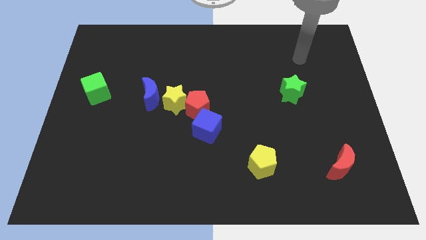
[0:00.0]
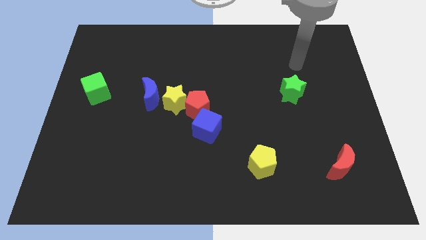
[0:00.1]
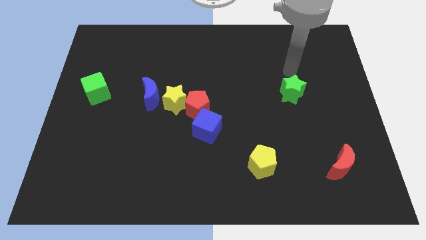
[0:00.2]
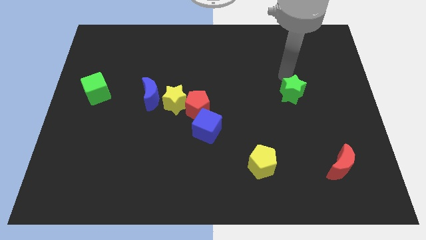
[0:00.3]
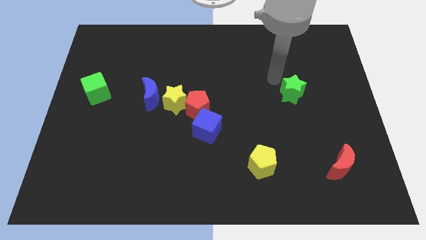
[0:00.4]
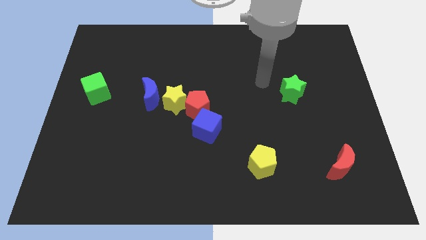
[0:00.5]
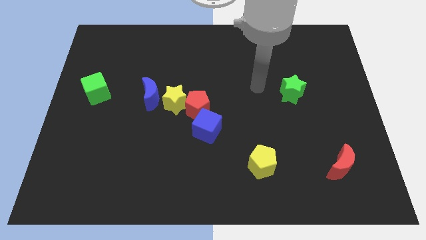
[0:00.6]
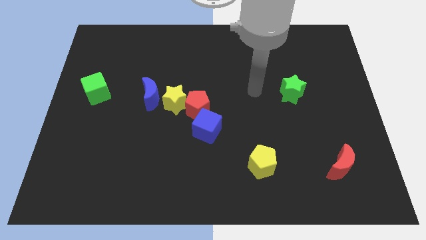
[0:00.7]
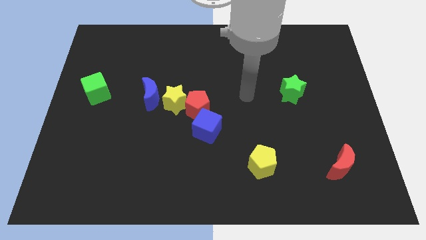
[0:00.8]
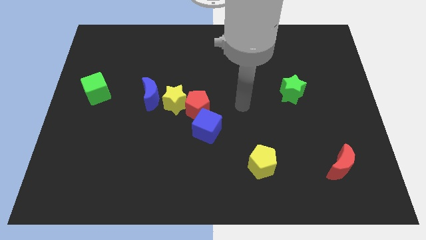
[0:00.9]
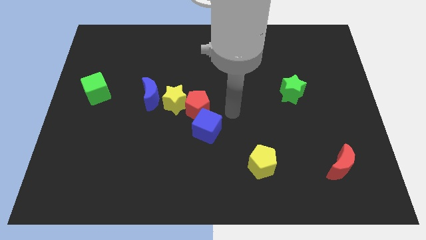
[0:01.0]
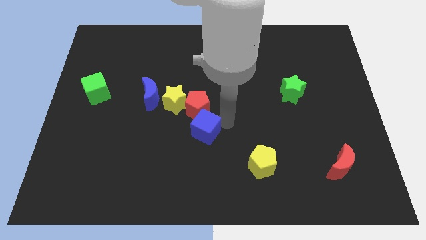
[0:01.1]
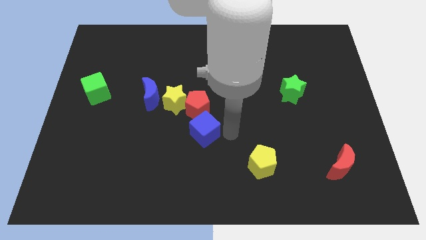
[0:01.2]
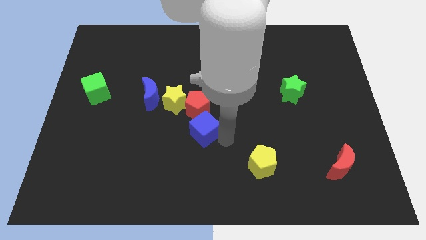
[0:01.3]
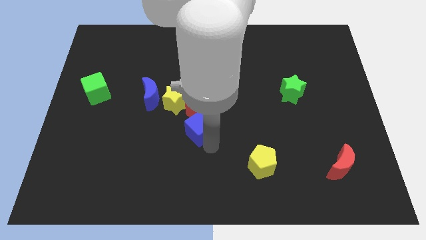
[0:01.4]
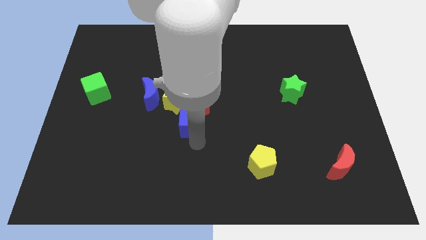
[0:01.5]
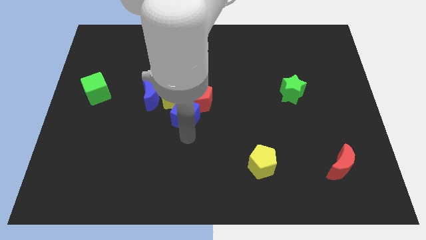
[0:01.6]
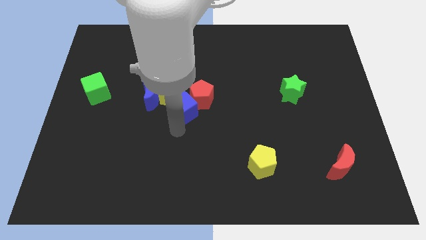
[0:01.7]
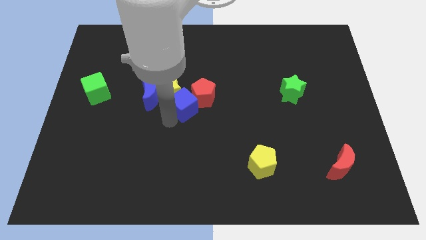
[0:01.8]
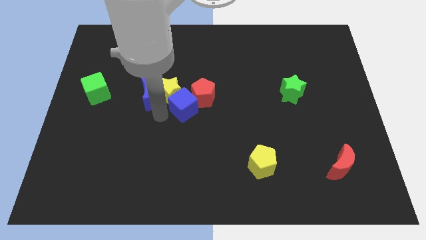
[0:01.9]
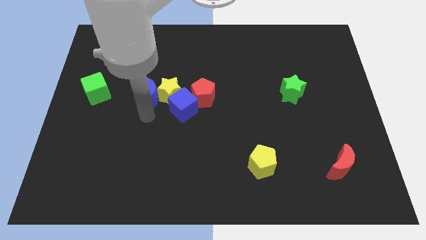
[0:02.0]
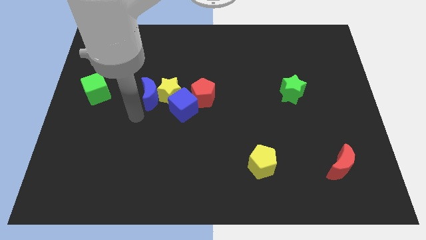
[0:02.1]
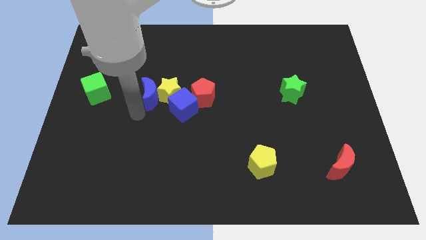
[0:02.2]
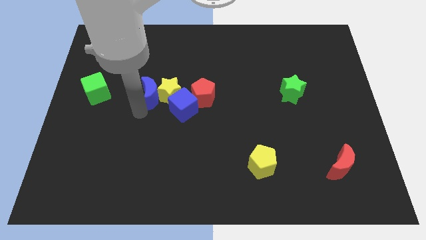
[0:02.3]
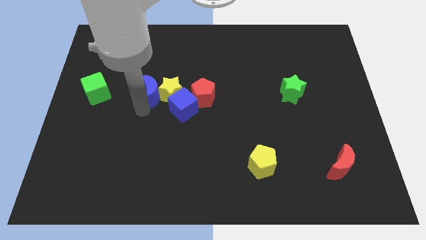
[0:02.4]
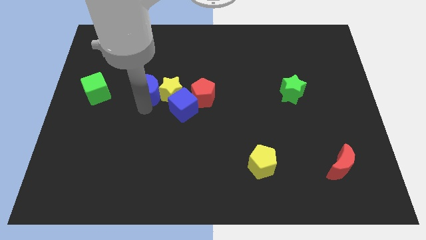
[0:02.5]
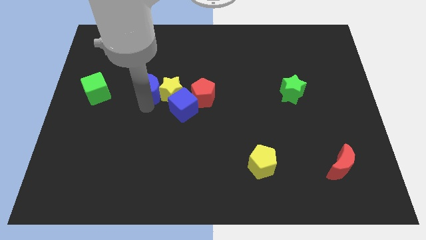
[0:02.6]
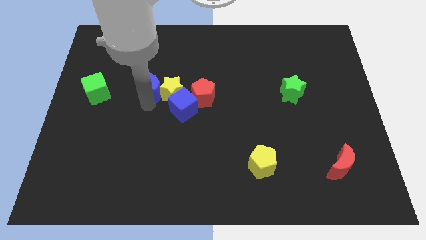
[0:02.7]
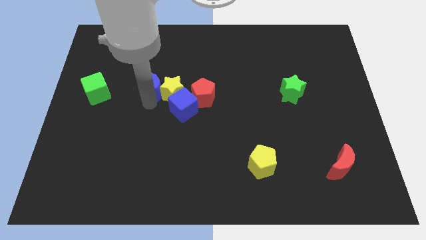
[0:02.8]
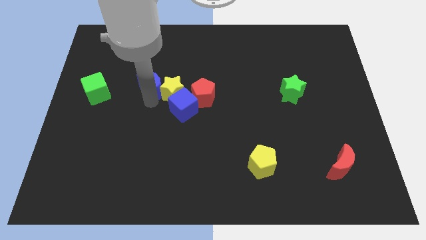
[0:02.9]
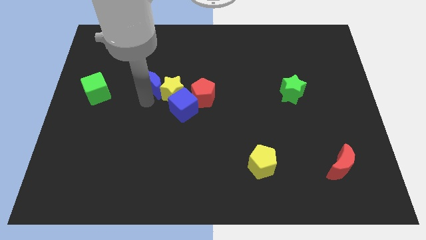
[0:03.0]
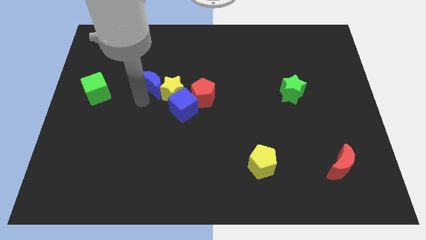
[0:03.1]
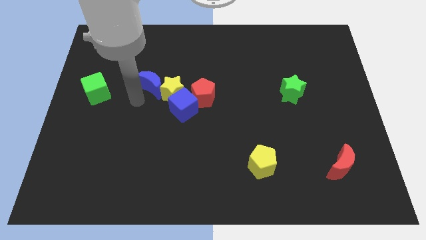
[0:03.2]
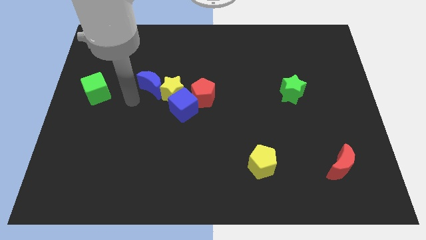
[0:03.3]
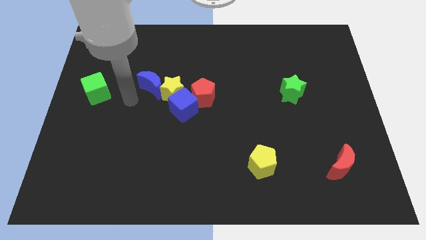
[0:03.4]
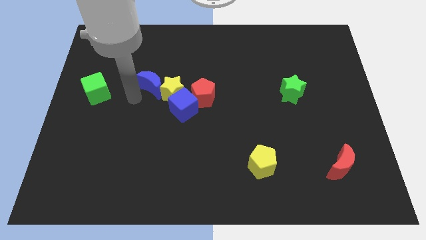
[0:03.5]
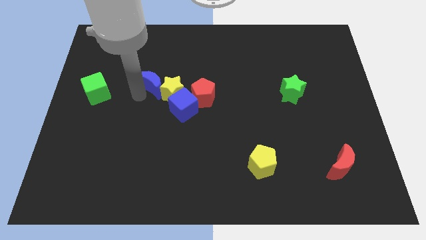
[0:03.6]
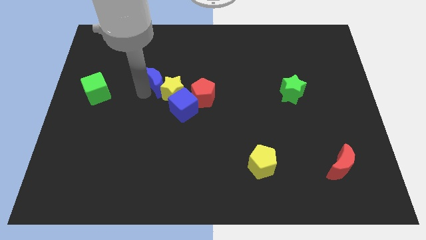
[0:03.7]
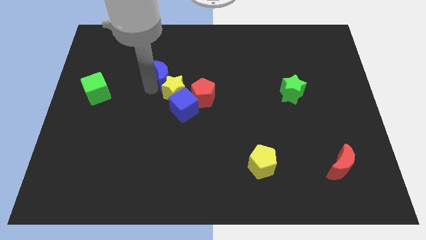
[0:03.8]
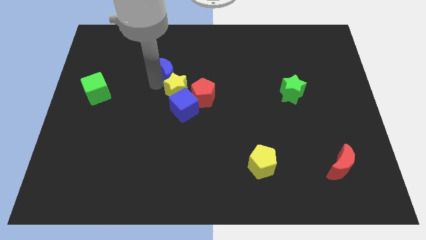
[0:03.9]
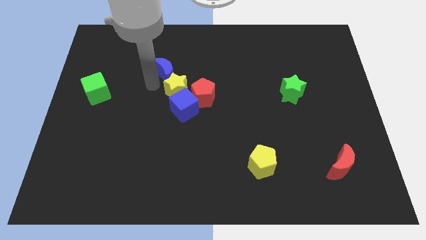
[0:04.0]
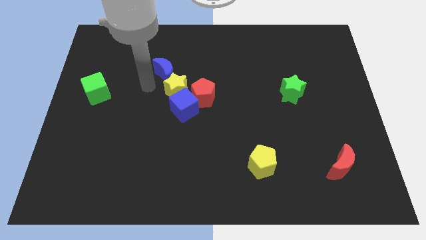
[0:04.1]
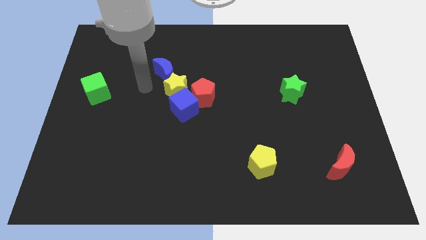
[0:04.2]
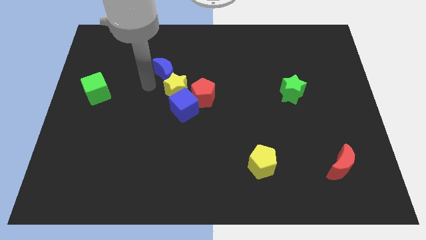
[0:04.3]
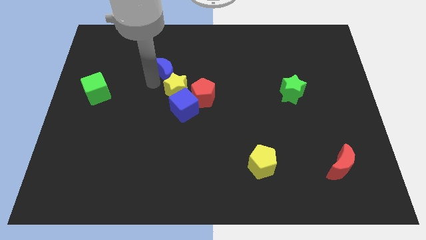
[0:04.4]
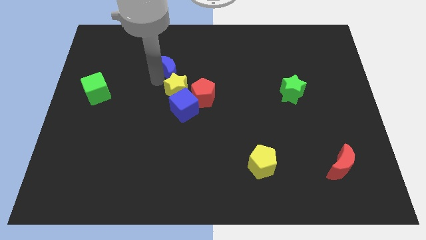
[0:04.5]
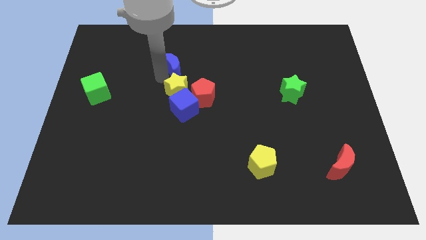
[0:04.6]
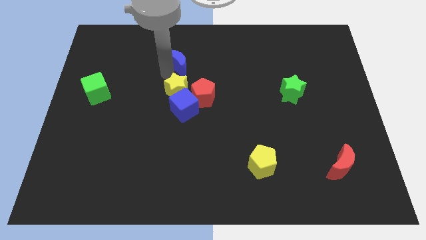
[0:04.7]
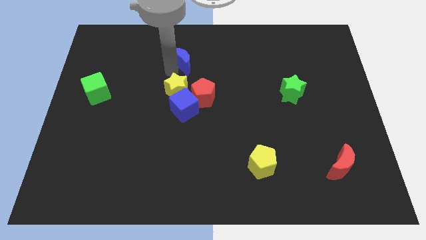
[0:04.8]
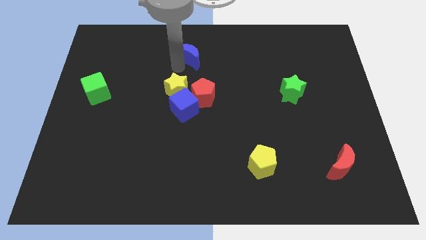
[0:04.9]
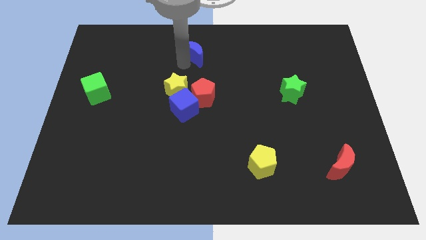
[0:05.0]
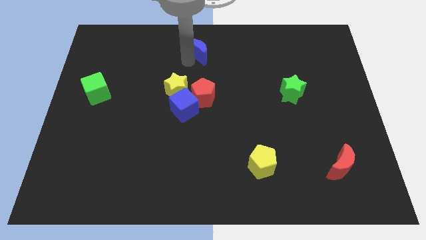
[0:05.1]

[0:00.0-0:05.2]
put the blue moon to the towards your base

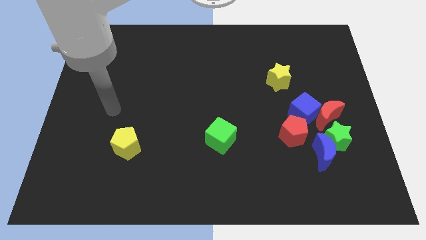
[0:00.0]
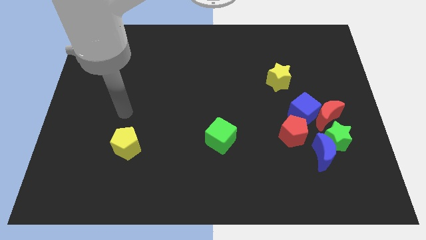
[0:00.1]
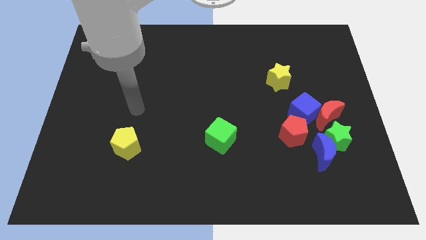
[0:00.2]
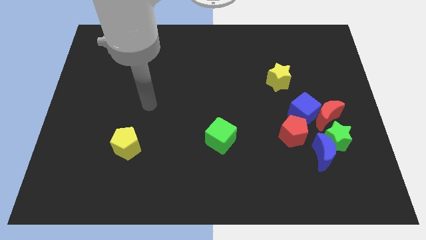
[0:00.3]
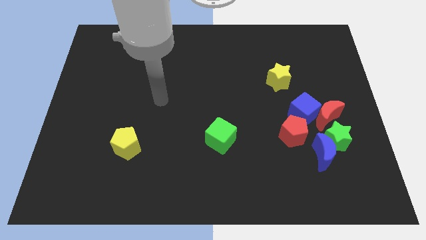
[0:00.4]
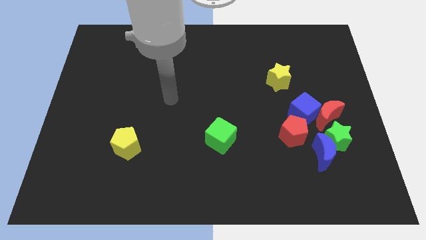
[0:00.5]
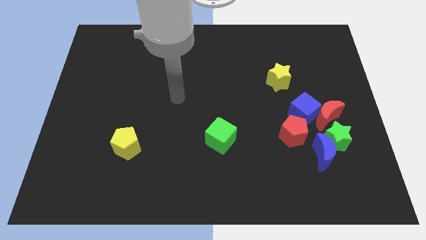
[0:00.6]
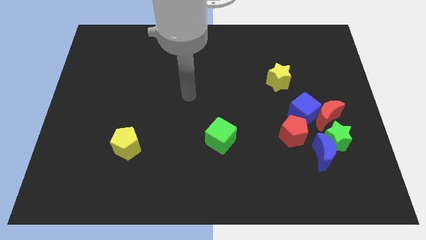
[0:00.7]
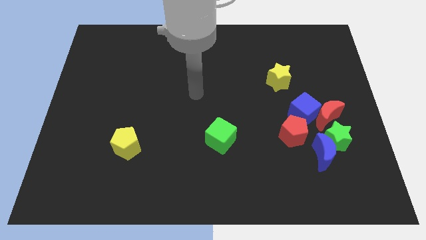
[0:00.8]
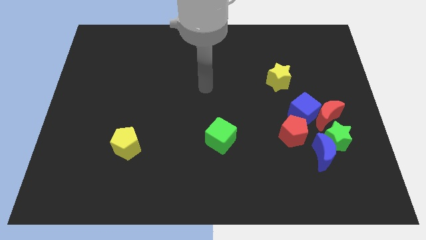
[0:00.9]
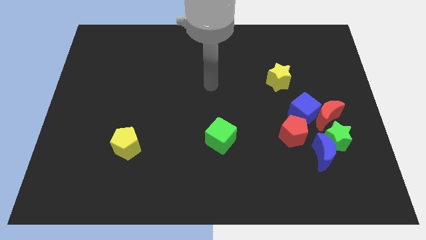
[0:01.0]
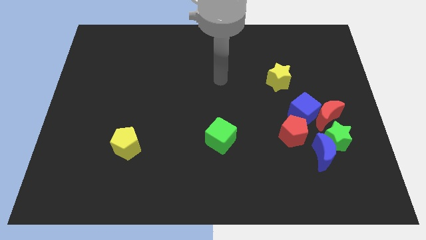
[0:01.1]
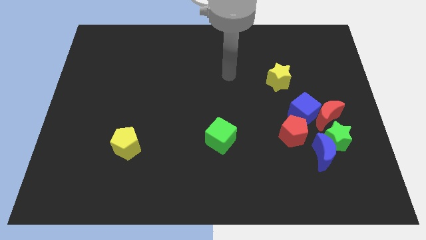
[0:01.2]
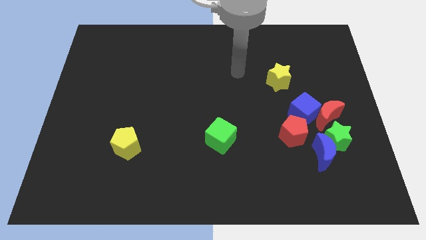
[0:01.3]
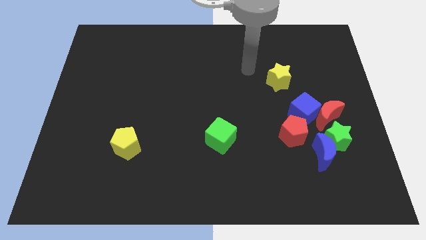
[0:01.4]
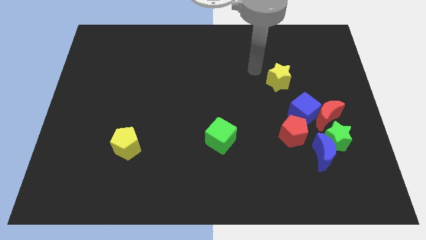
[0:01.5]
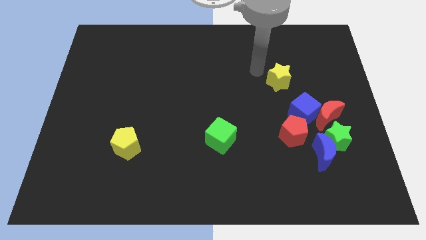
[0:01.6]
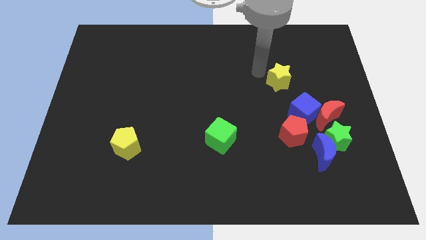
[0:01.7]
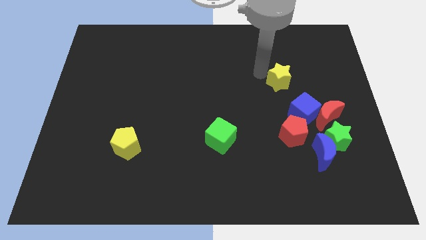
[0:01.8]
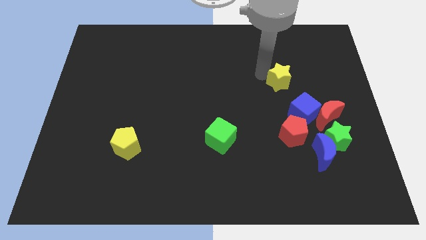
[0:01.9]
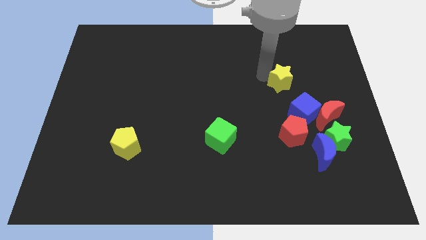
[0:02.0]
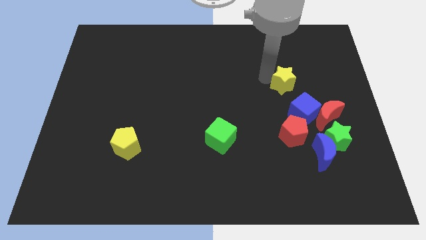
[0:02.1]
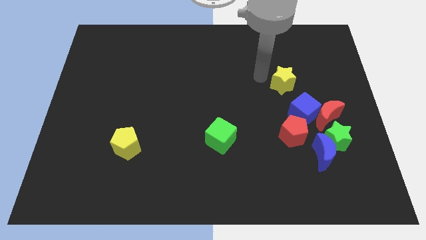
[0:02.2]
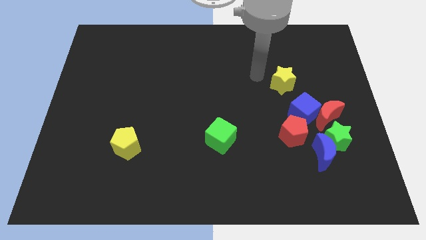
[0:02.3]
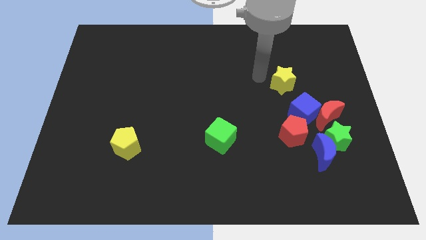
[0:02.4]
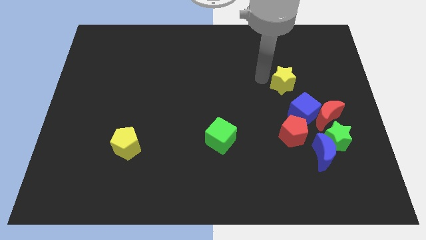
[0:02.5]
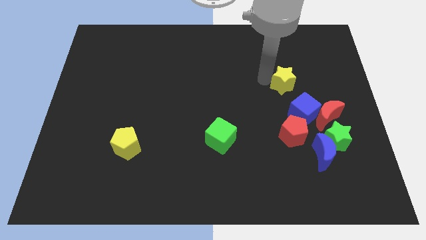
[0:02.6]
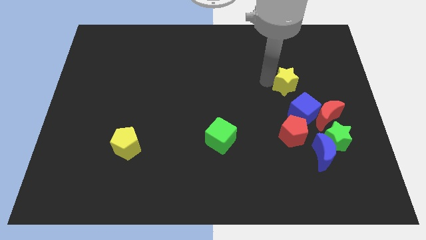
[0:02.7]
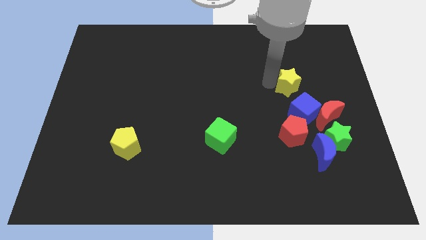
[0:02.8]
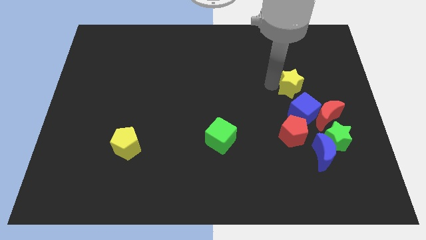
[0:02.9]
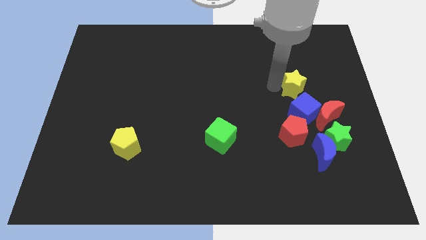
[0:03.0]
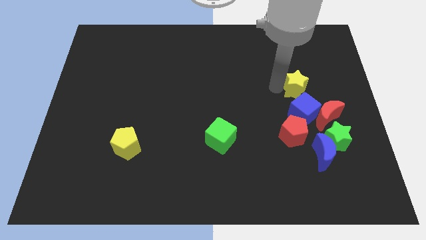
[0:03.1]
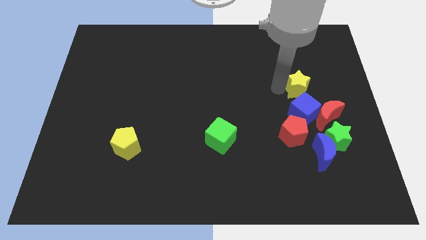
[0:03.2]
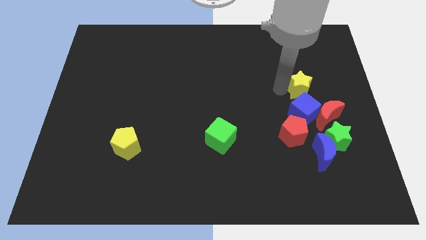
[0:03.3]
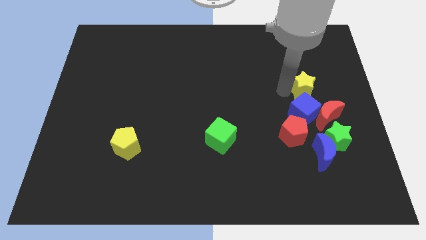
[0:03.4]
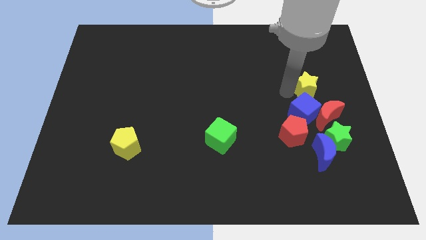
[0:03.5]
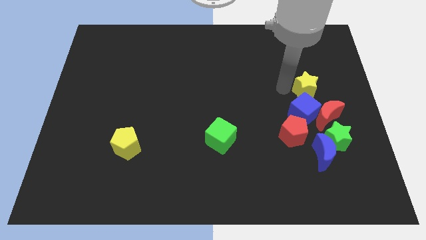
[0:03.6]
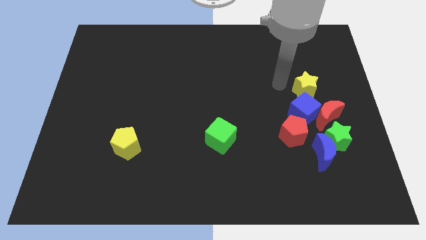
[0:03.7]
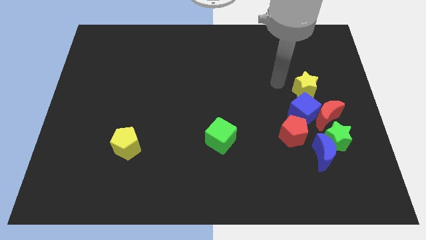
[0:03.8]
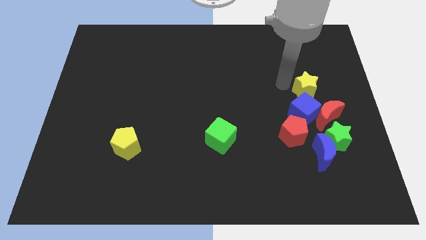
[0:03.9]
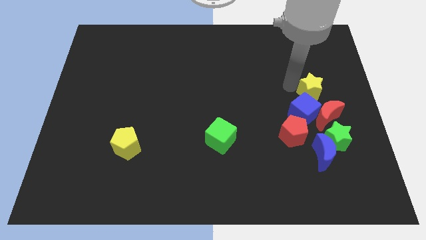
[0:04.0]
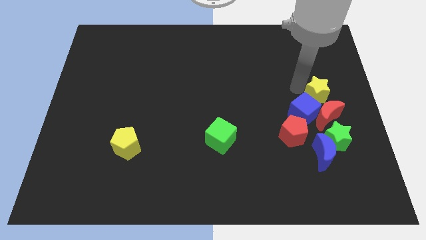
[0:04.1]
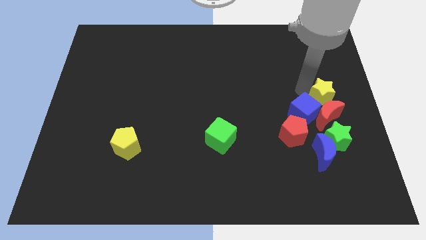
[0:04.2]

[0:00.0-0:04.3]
move the yellow star to the center right
